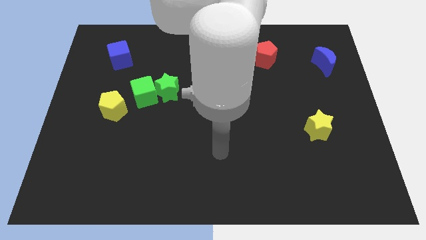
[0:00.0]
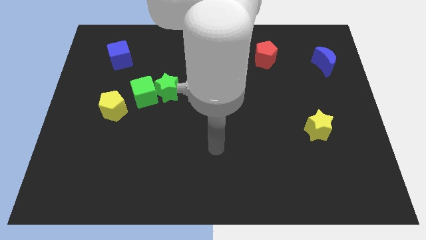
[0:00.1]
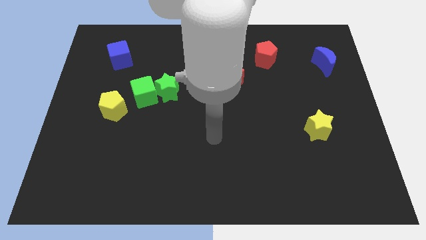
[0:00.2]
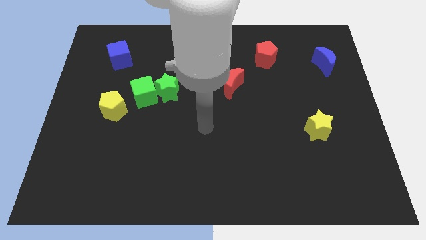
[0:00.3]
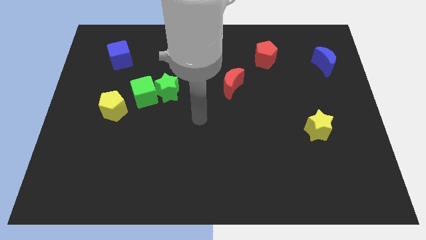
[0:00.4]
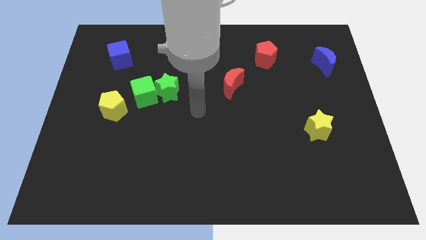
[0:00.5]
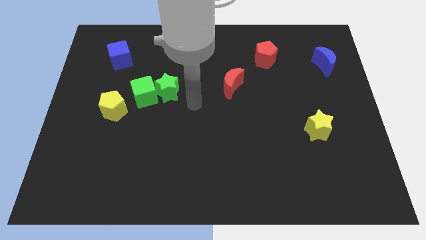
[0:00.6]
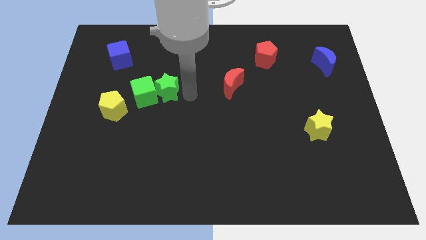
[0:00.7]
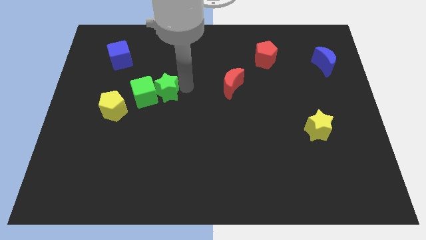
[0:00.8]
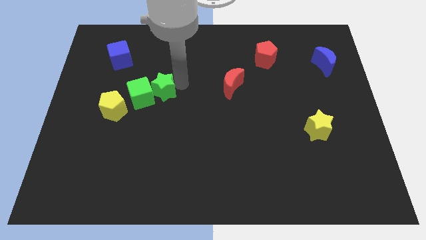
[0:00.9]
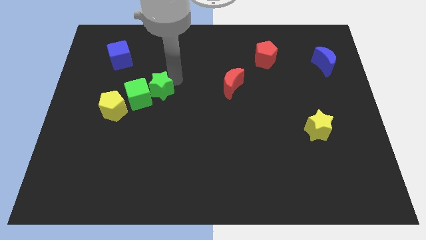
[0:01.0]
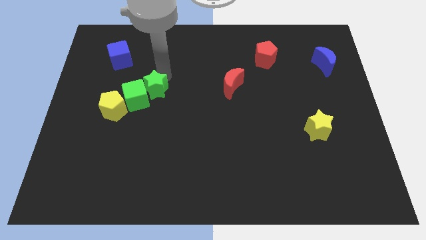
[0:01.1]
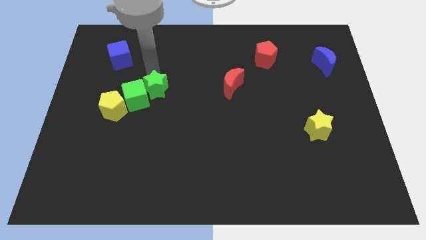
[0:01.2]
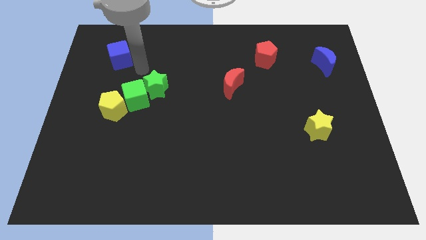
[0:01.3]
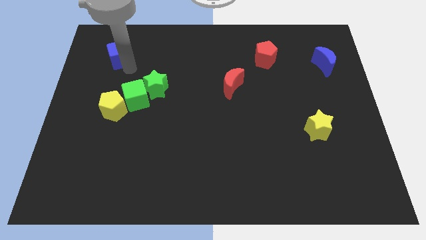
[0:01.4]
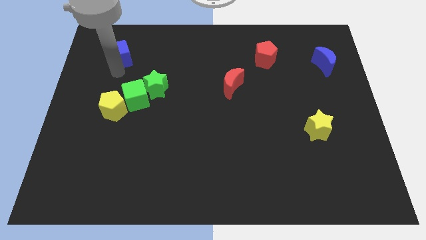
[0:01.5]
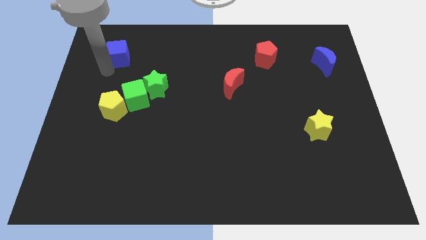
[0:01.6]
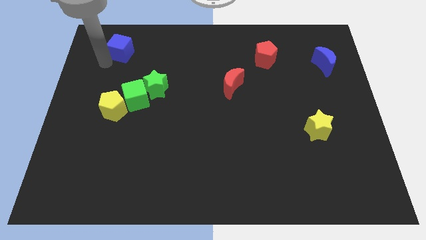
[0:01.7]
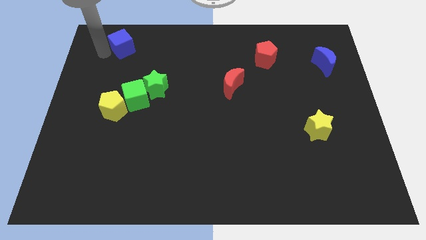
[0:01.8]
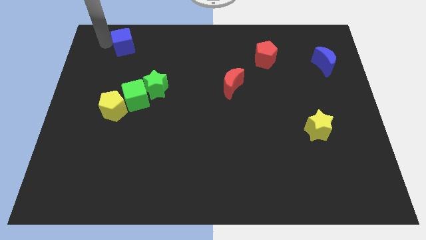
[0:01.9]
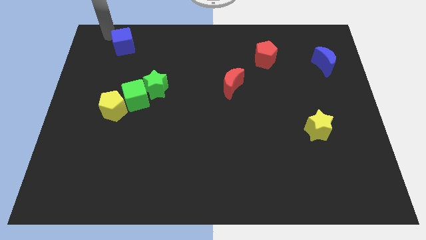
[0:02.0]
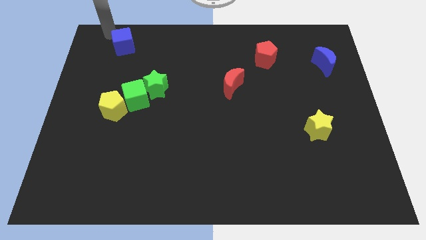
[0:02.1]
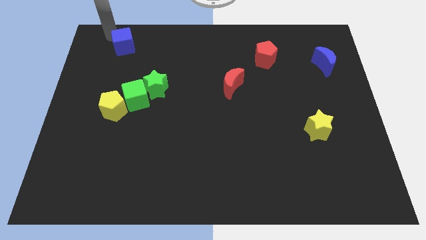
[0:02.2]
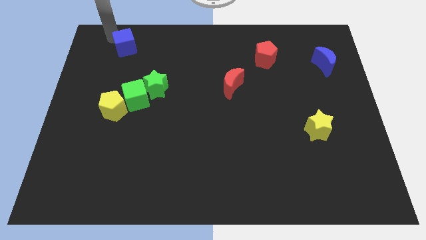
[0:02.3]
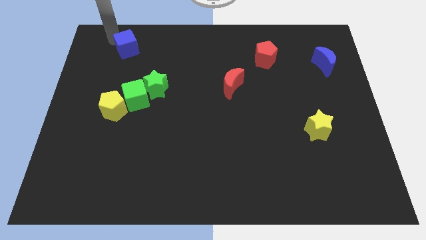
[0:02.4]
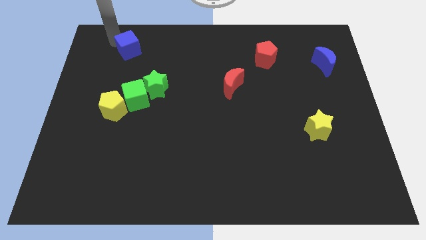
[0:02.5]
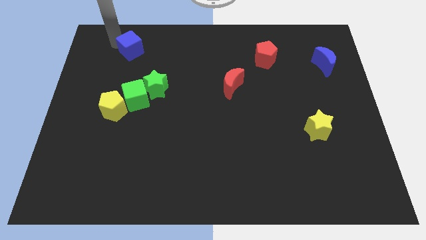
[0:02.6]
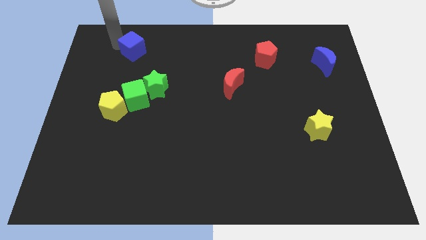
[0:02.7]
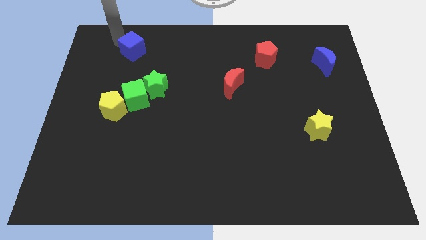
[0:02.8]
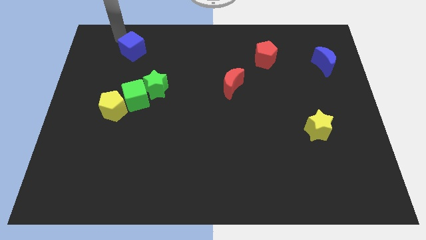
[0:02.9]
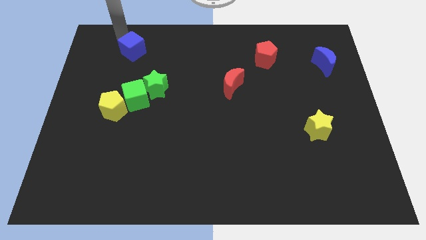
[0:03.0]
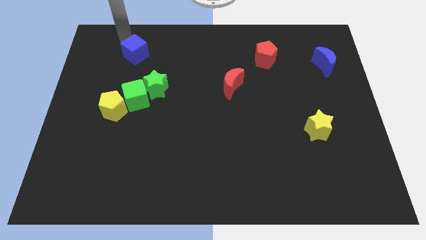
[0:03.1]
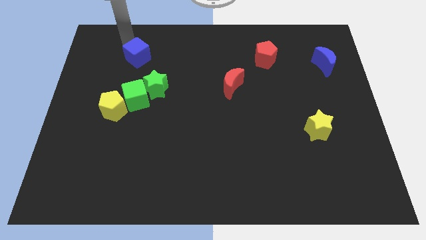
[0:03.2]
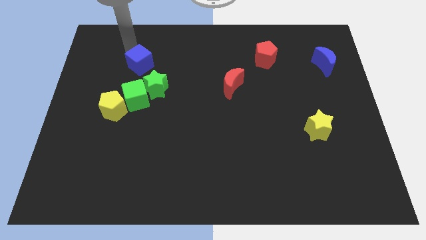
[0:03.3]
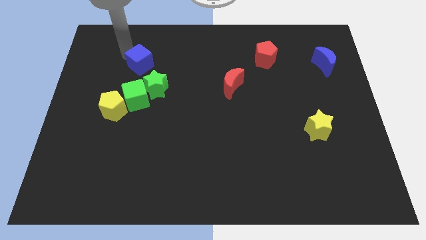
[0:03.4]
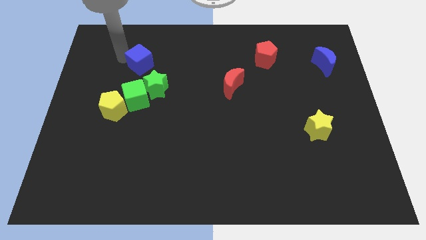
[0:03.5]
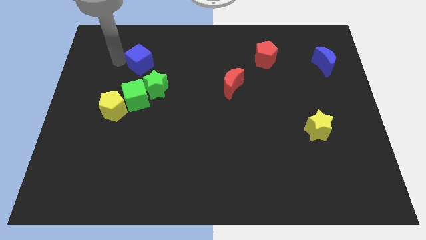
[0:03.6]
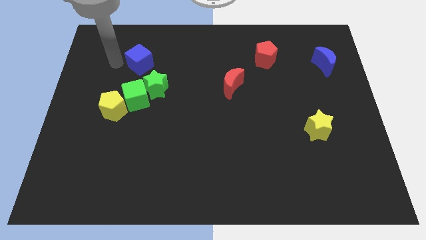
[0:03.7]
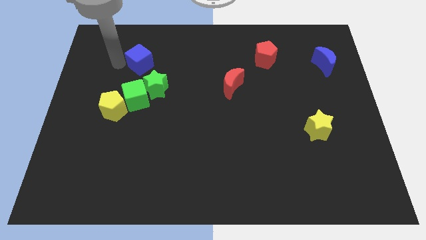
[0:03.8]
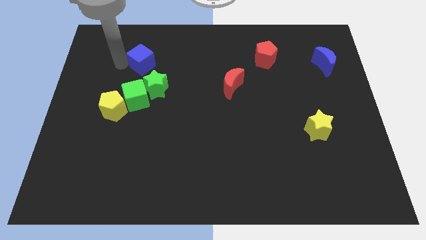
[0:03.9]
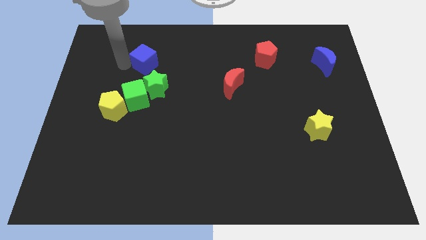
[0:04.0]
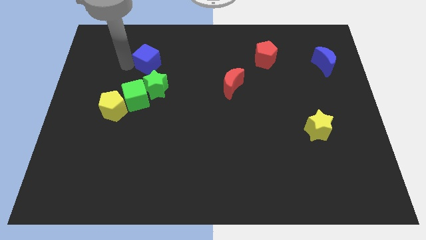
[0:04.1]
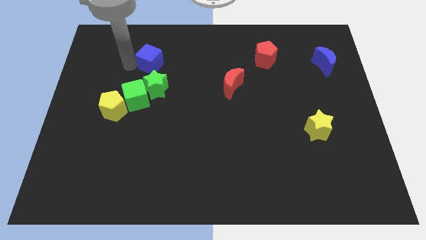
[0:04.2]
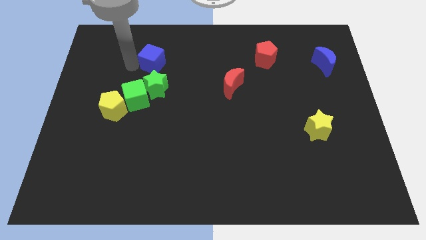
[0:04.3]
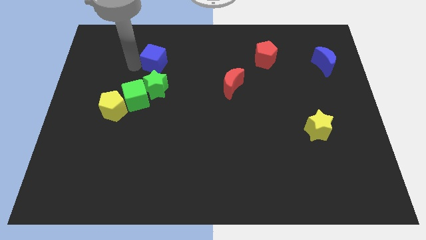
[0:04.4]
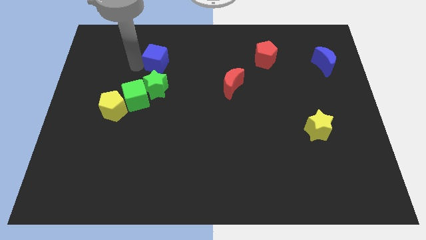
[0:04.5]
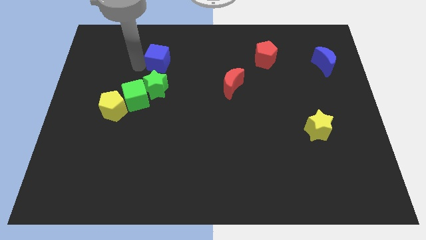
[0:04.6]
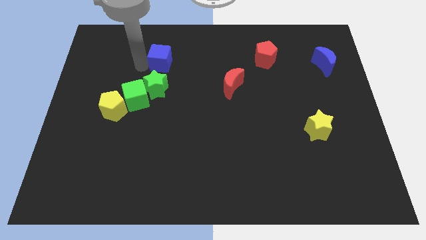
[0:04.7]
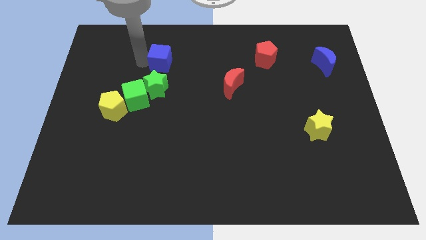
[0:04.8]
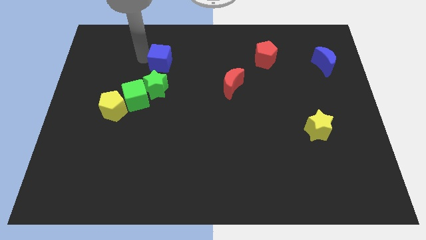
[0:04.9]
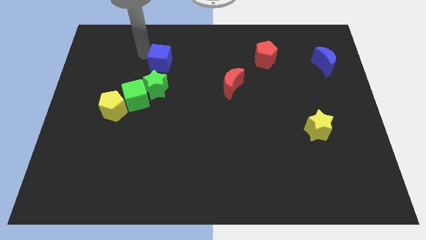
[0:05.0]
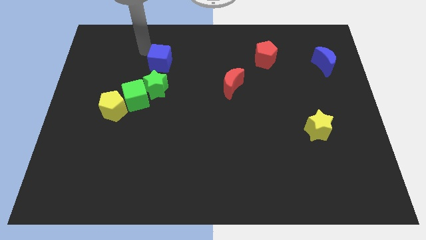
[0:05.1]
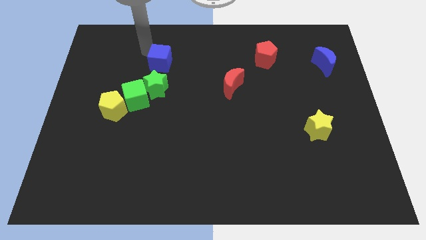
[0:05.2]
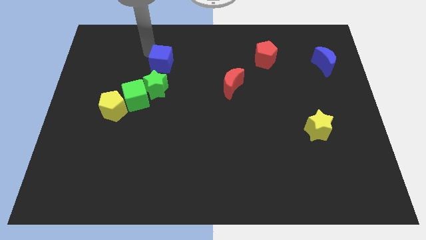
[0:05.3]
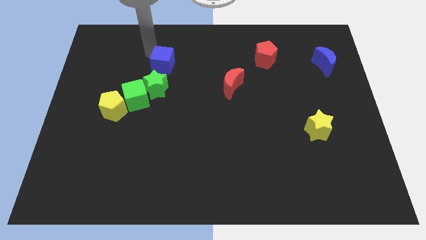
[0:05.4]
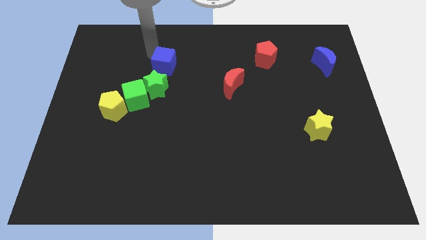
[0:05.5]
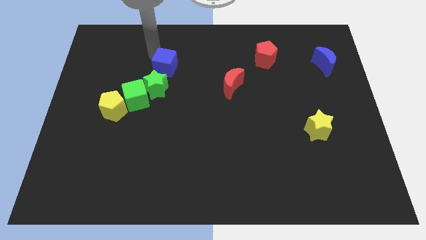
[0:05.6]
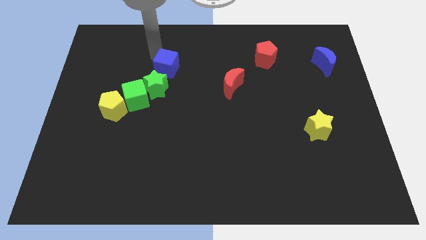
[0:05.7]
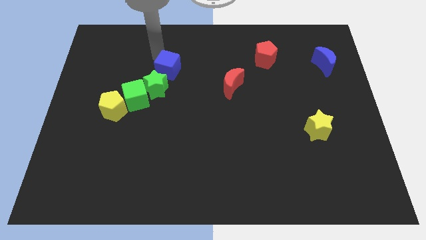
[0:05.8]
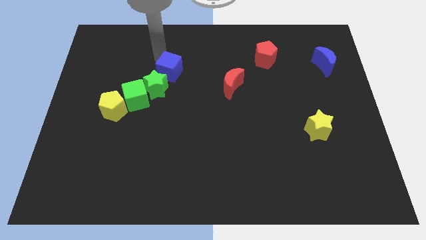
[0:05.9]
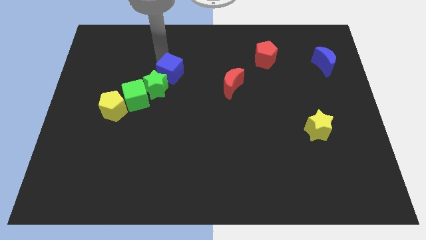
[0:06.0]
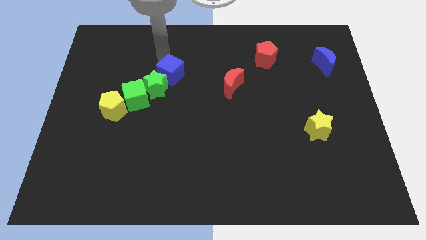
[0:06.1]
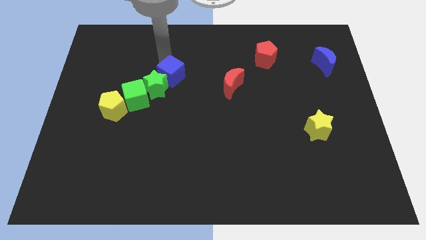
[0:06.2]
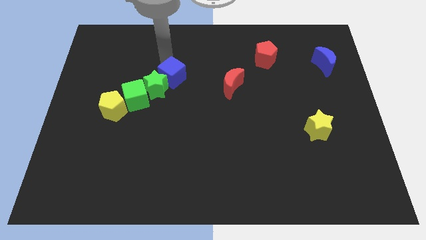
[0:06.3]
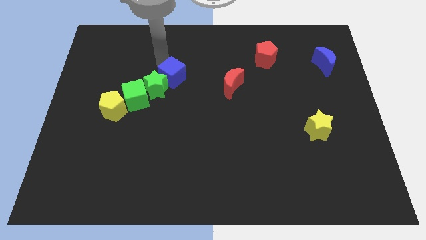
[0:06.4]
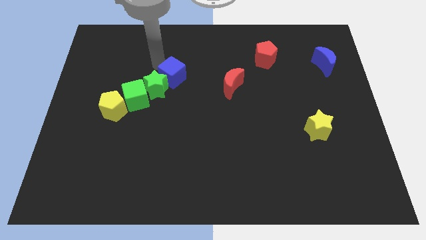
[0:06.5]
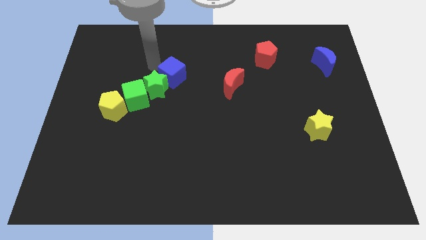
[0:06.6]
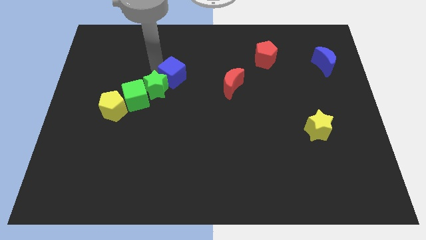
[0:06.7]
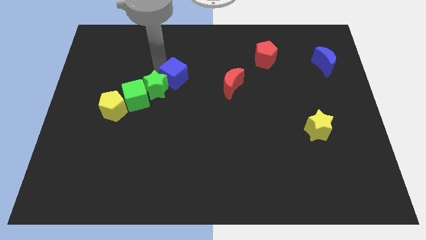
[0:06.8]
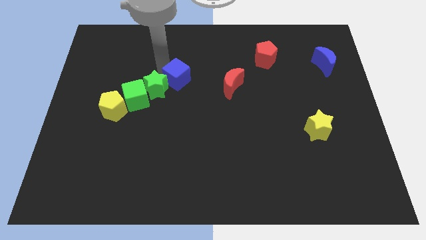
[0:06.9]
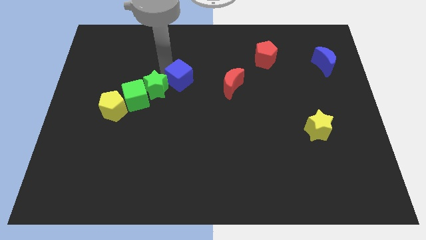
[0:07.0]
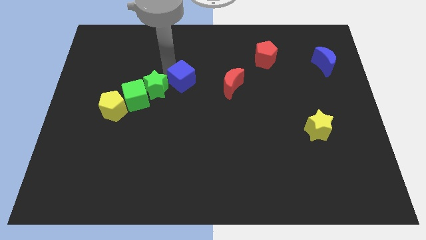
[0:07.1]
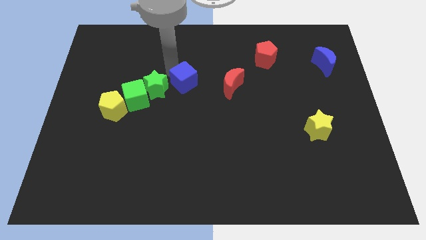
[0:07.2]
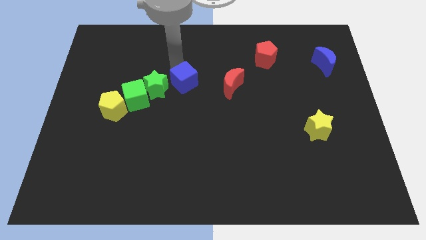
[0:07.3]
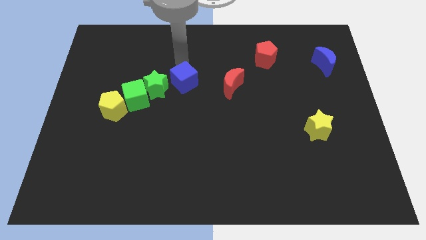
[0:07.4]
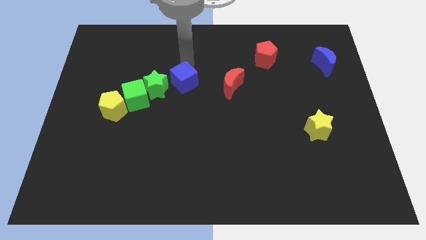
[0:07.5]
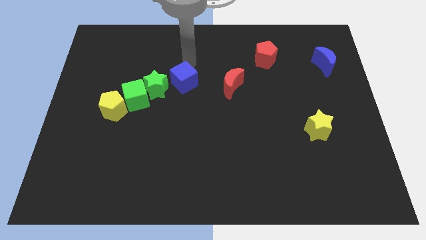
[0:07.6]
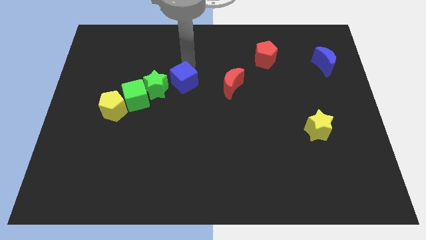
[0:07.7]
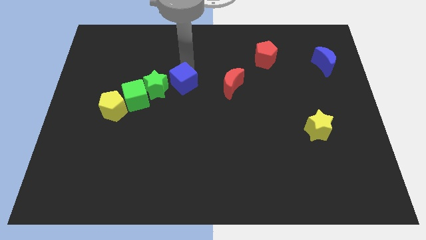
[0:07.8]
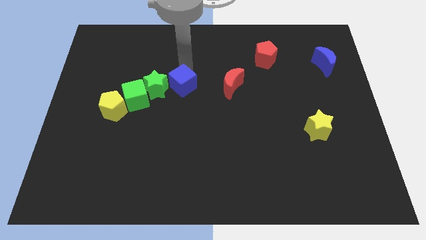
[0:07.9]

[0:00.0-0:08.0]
put the blue cube just right of the green cube
